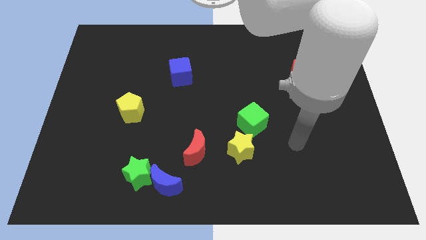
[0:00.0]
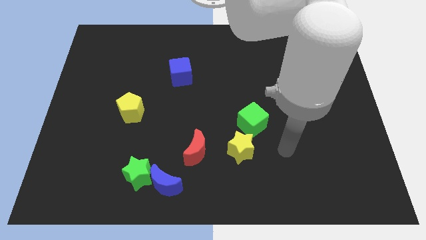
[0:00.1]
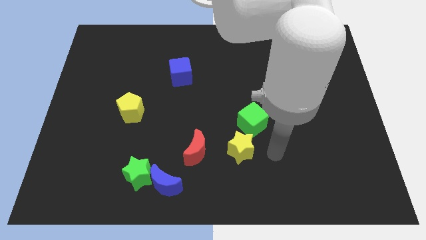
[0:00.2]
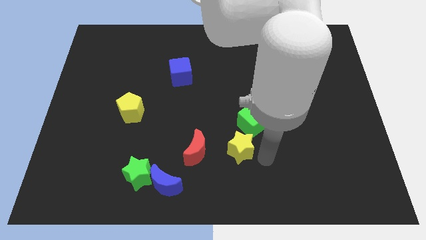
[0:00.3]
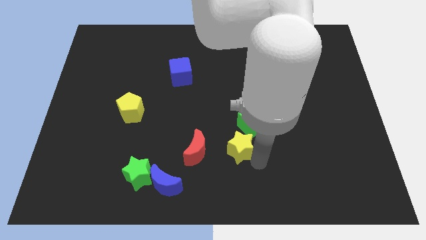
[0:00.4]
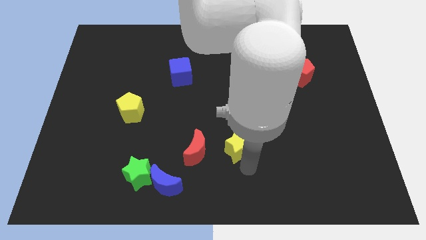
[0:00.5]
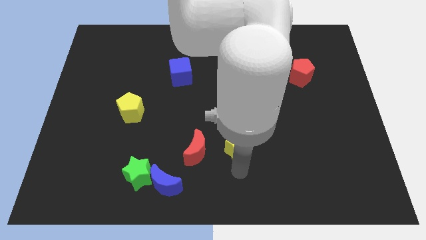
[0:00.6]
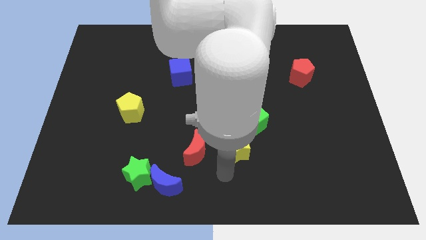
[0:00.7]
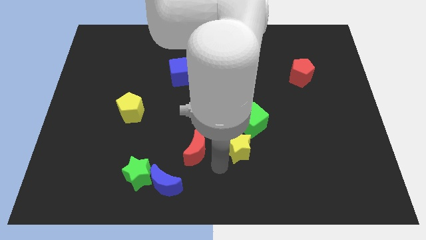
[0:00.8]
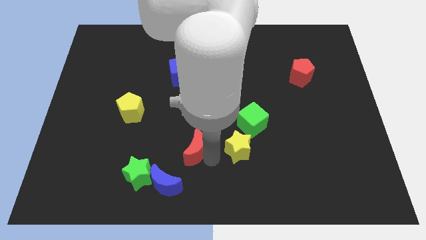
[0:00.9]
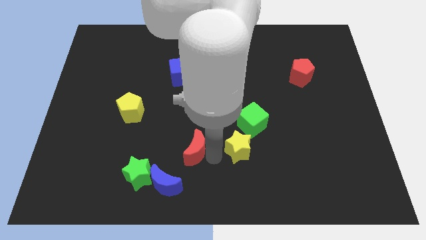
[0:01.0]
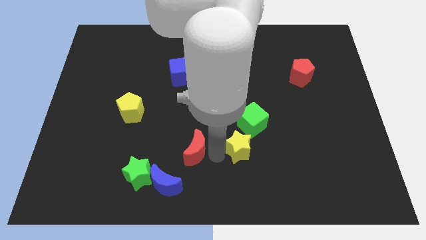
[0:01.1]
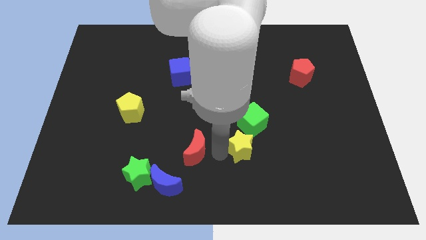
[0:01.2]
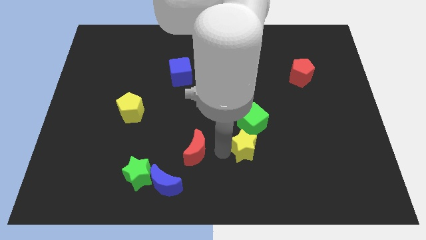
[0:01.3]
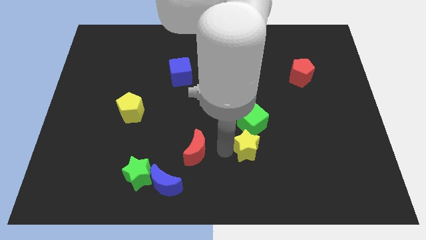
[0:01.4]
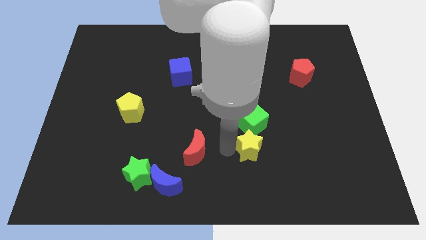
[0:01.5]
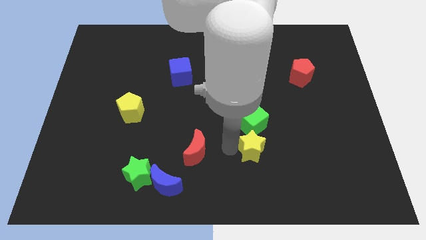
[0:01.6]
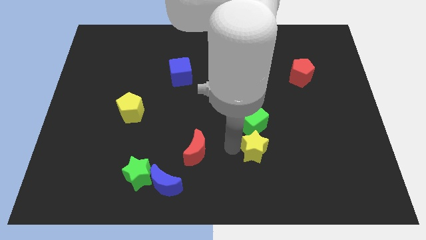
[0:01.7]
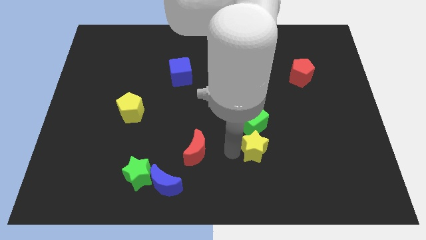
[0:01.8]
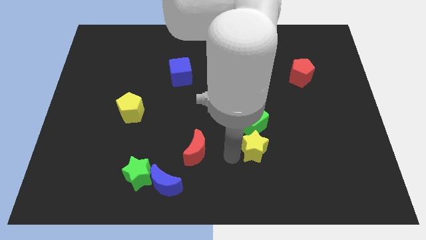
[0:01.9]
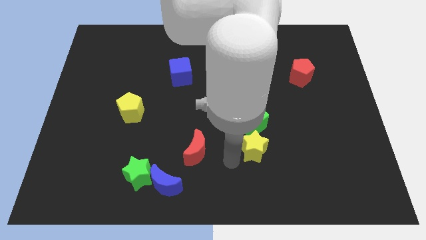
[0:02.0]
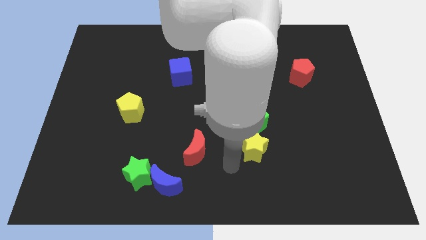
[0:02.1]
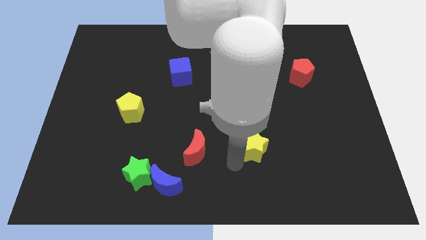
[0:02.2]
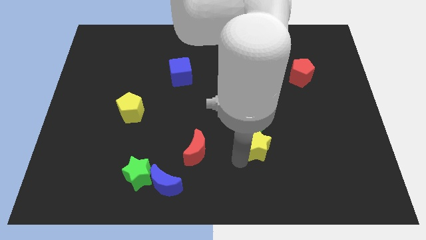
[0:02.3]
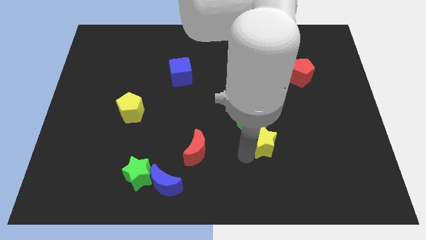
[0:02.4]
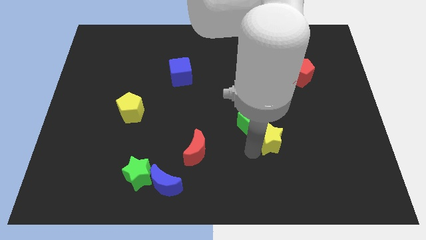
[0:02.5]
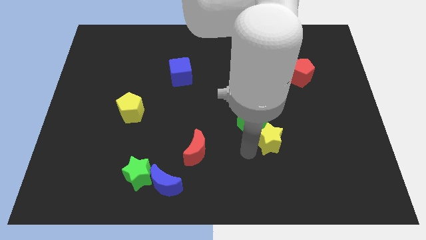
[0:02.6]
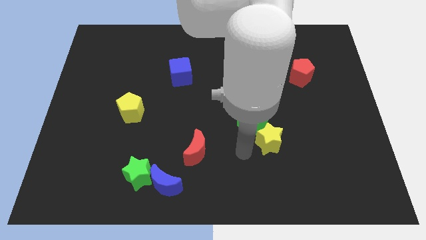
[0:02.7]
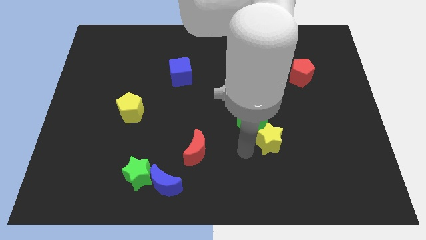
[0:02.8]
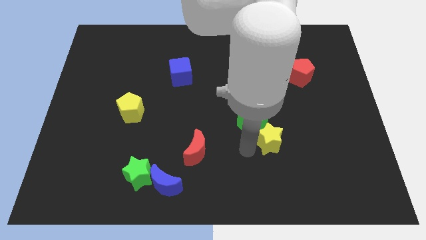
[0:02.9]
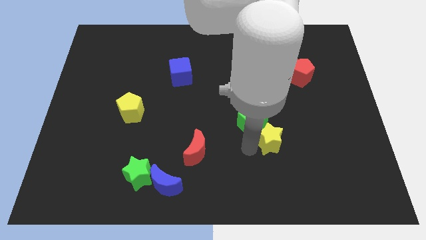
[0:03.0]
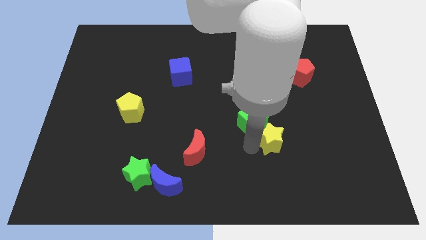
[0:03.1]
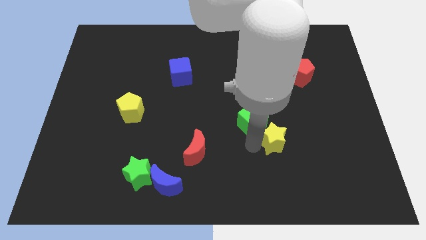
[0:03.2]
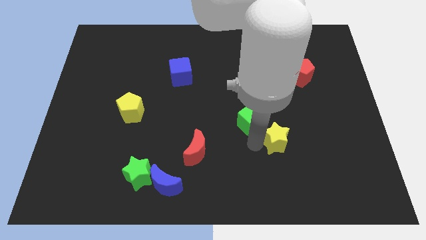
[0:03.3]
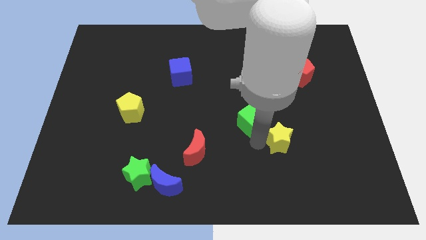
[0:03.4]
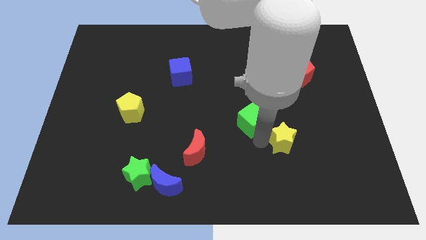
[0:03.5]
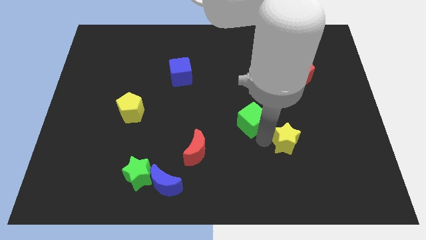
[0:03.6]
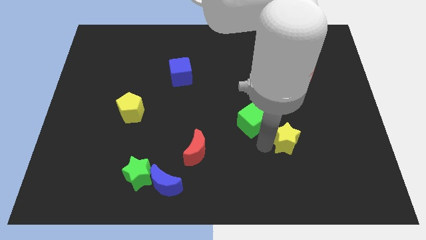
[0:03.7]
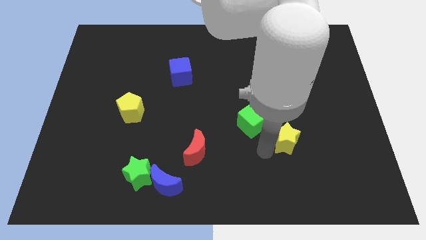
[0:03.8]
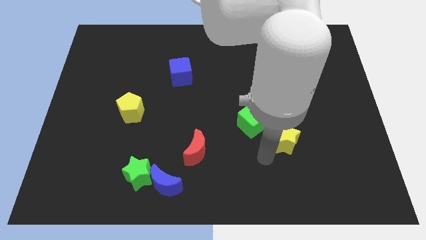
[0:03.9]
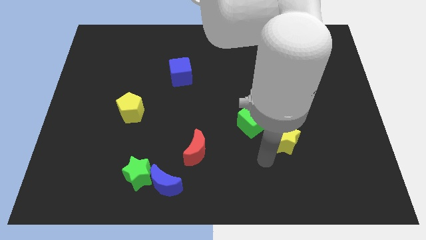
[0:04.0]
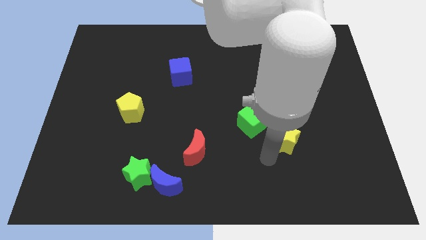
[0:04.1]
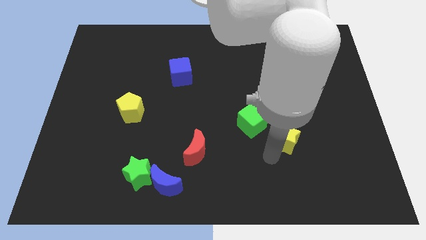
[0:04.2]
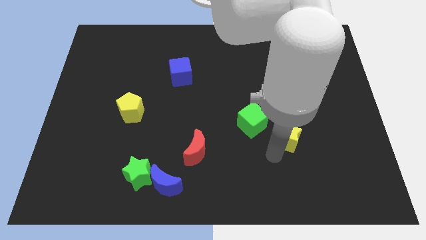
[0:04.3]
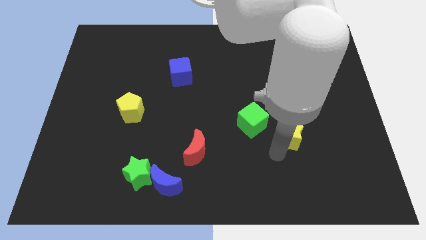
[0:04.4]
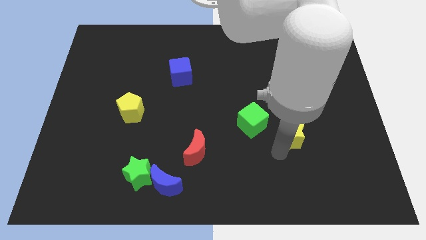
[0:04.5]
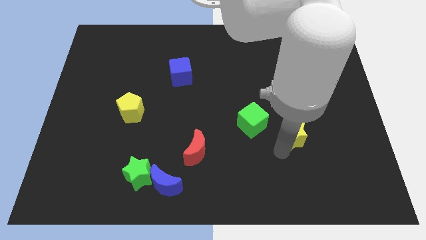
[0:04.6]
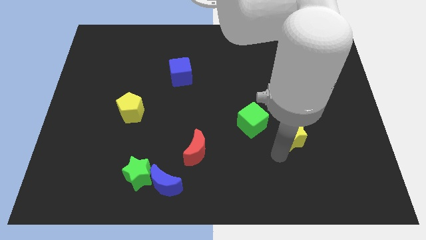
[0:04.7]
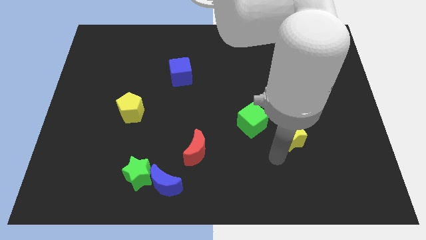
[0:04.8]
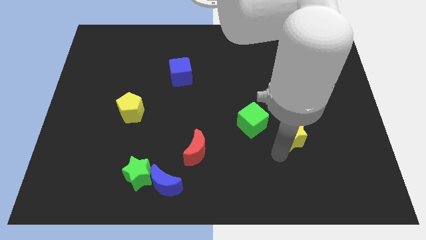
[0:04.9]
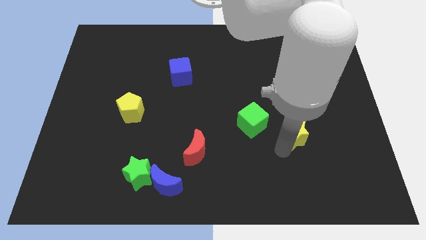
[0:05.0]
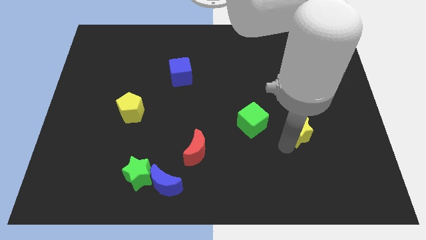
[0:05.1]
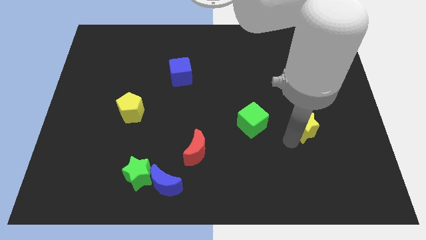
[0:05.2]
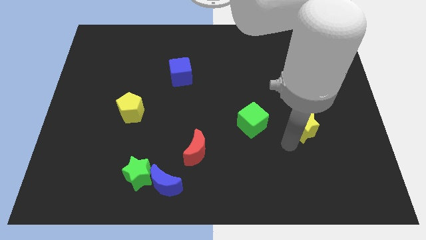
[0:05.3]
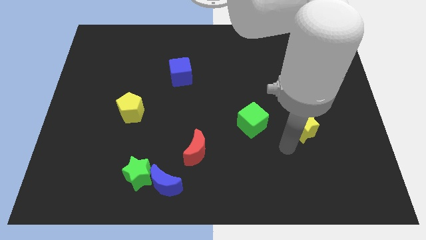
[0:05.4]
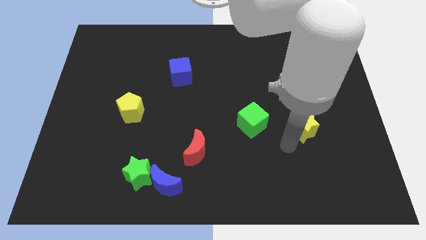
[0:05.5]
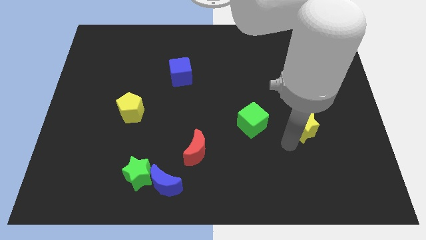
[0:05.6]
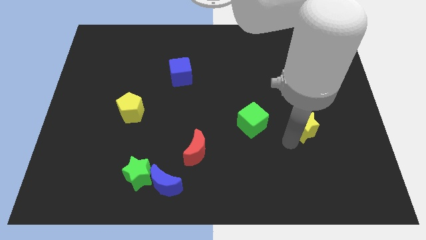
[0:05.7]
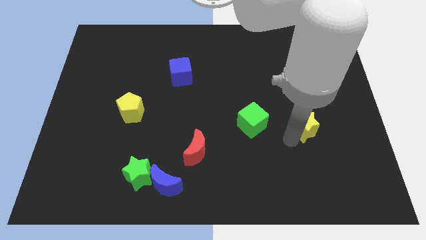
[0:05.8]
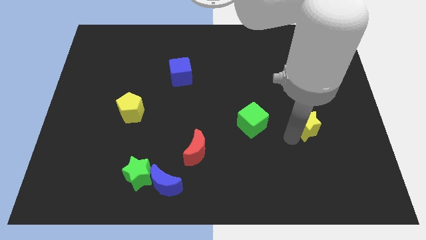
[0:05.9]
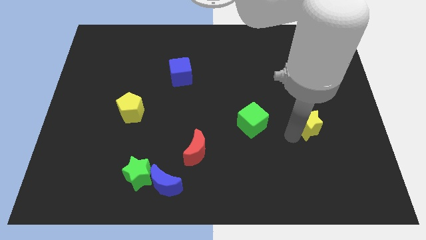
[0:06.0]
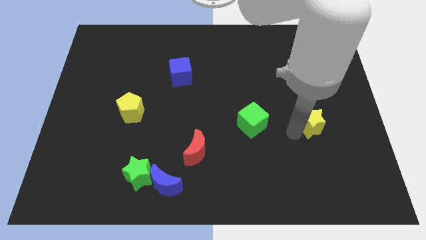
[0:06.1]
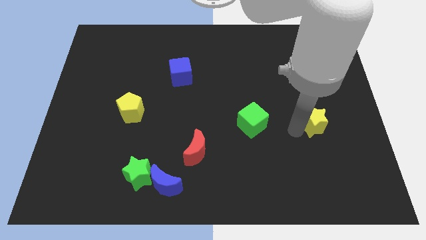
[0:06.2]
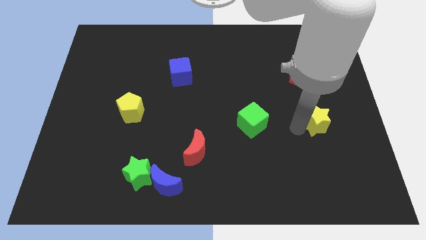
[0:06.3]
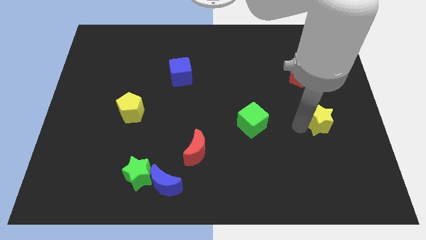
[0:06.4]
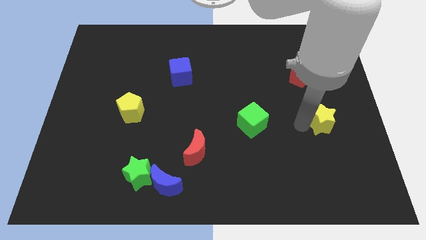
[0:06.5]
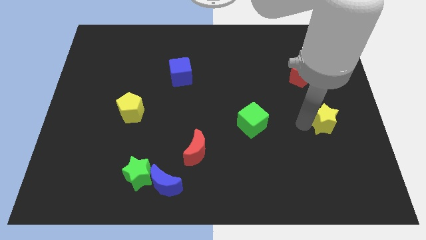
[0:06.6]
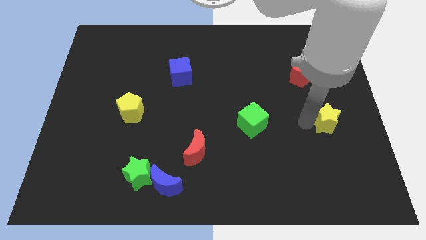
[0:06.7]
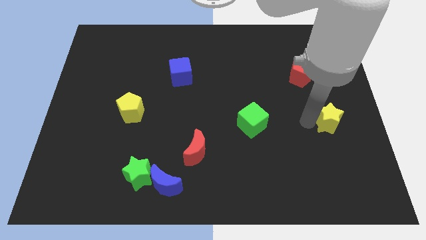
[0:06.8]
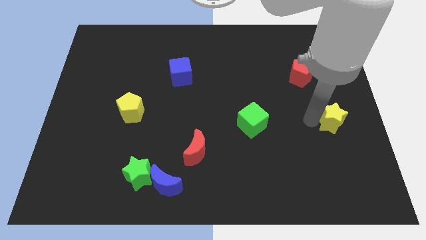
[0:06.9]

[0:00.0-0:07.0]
move the yellow star to the center right
